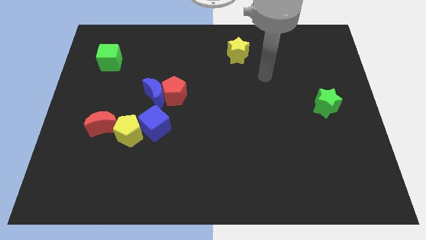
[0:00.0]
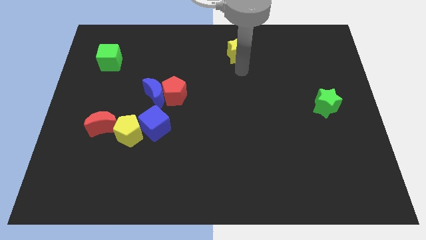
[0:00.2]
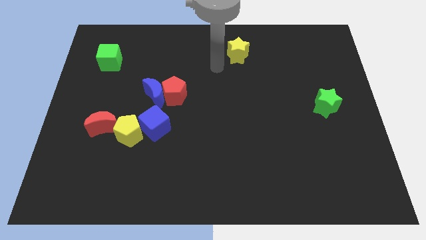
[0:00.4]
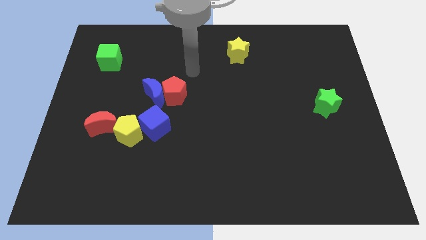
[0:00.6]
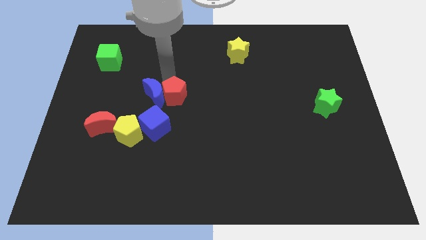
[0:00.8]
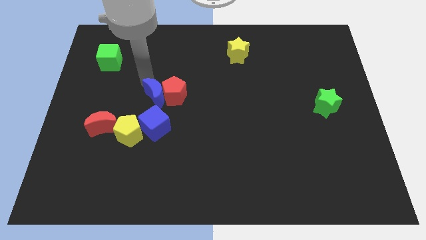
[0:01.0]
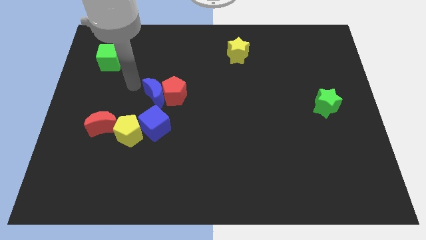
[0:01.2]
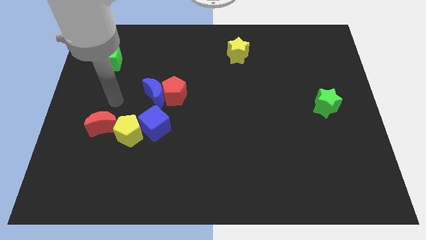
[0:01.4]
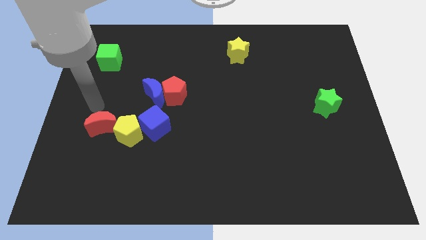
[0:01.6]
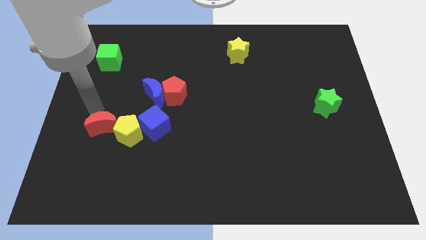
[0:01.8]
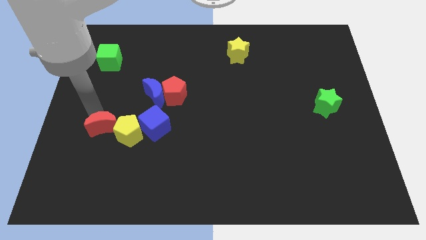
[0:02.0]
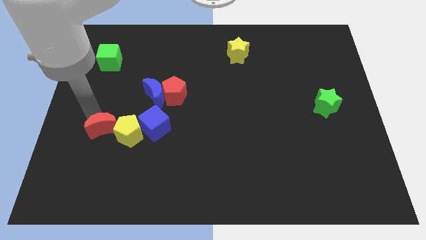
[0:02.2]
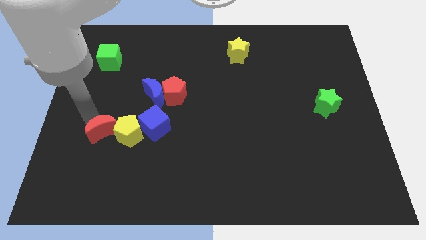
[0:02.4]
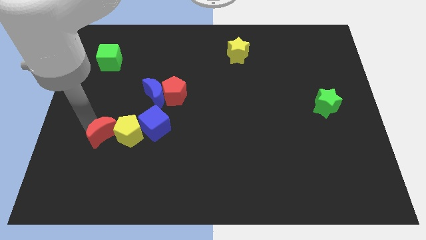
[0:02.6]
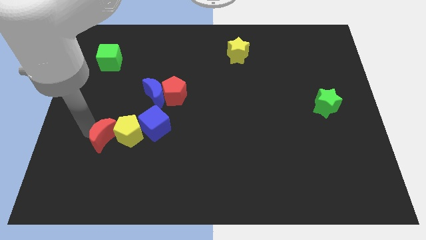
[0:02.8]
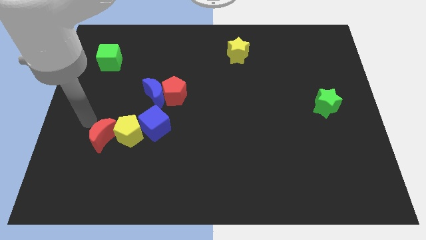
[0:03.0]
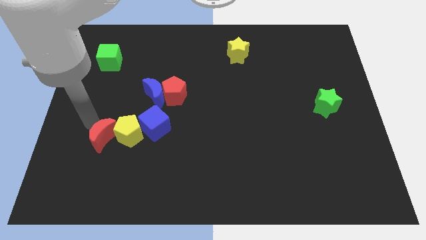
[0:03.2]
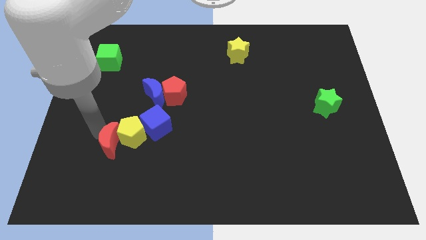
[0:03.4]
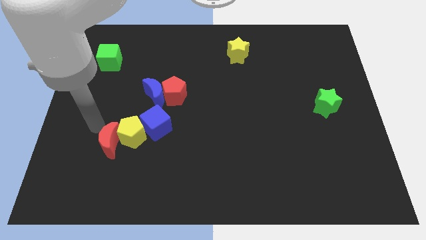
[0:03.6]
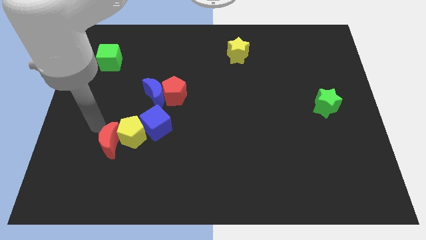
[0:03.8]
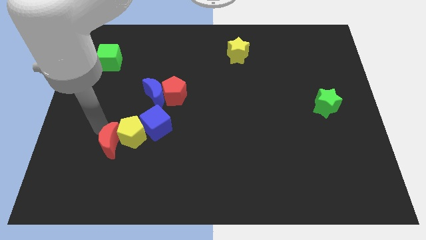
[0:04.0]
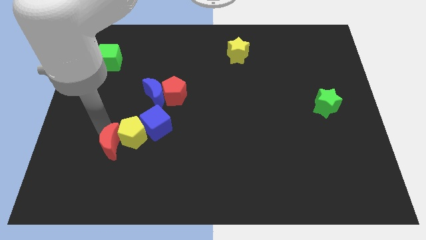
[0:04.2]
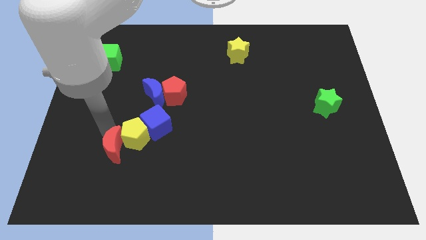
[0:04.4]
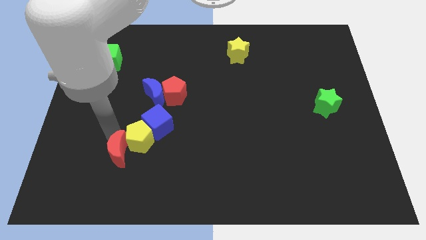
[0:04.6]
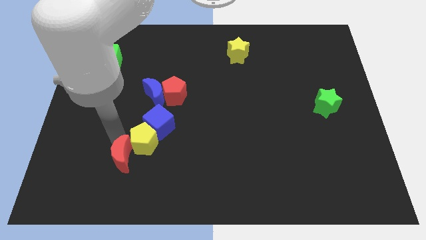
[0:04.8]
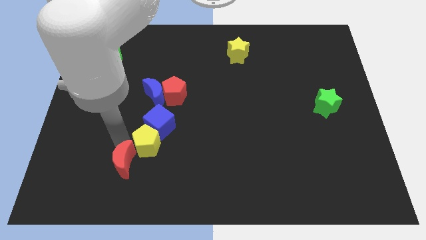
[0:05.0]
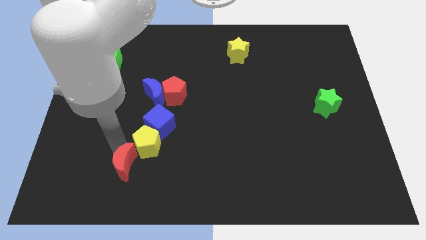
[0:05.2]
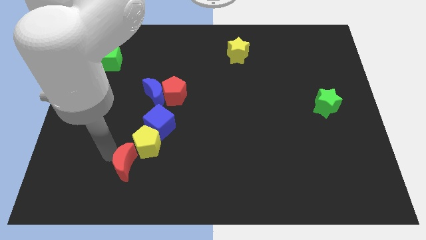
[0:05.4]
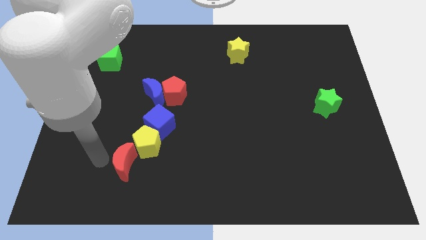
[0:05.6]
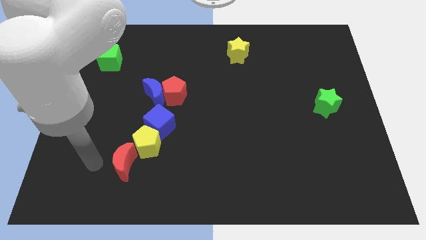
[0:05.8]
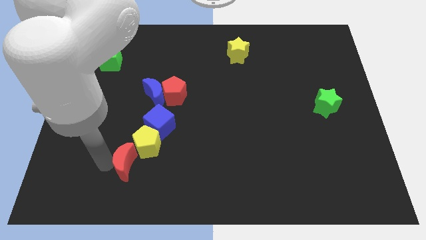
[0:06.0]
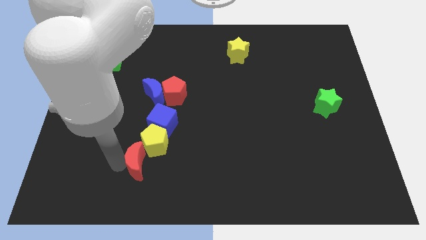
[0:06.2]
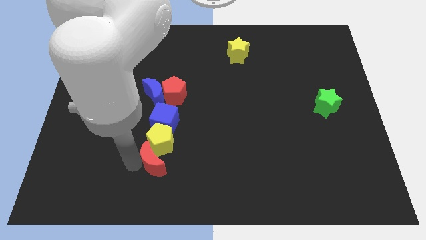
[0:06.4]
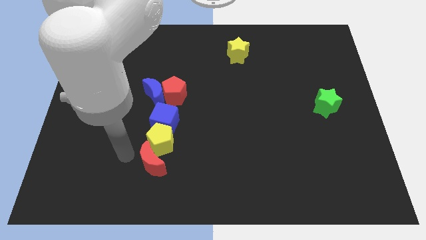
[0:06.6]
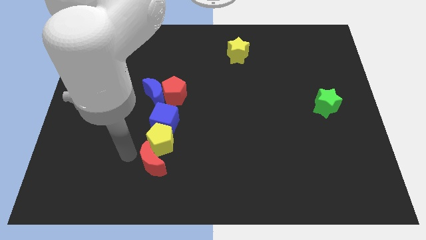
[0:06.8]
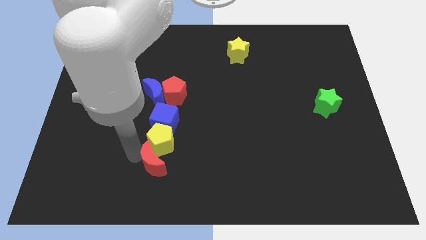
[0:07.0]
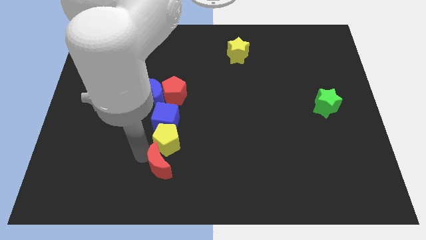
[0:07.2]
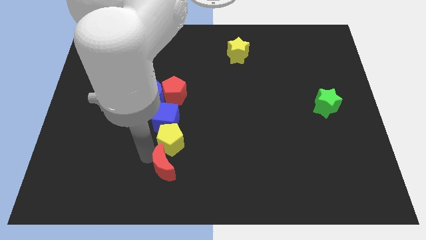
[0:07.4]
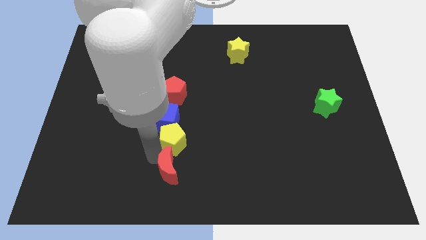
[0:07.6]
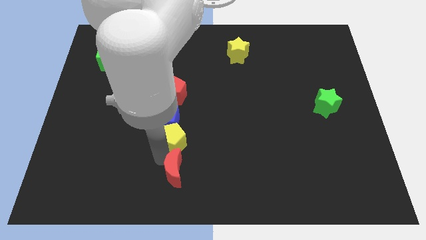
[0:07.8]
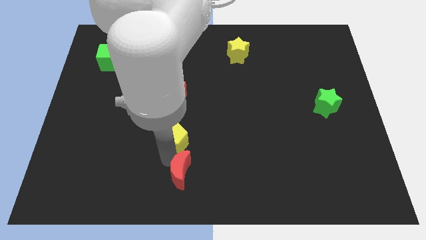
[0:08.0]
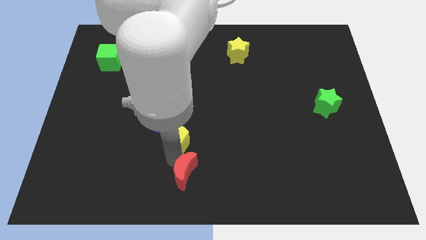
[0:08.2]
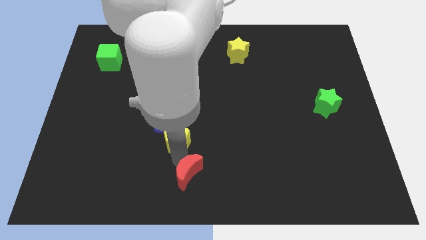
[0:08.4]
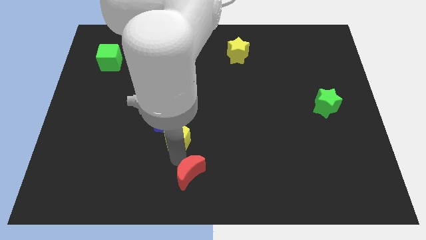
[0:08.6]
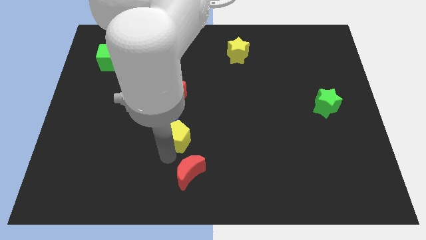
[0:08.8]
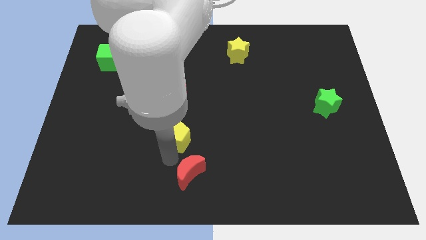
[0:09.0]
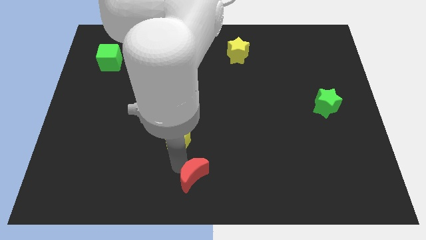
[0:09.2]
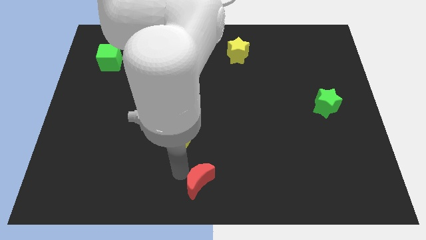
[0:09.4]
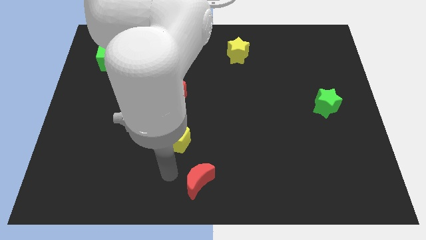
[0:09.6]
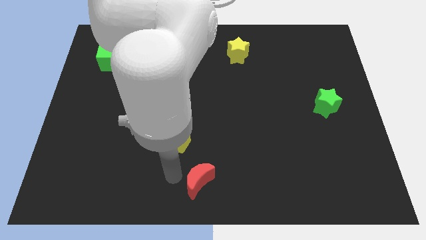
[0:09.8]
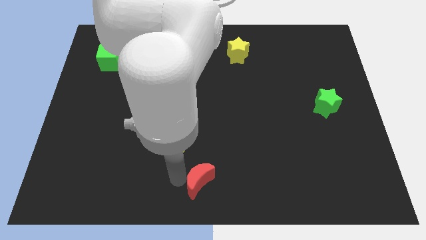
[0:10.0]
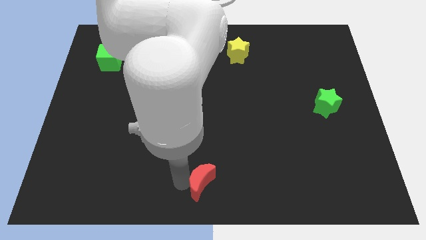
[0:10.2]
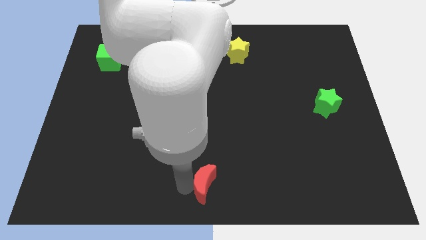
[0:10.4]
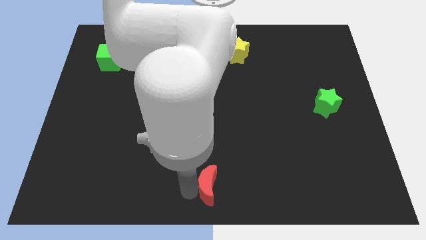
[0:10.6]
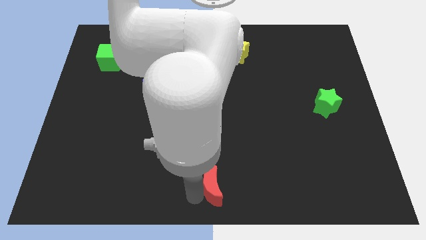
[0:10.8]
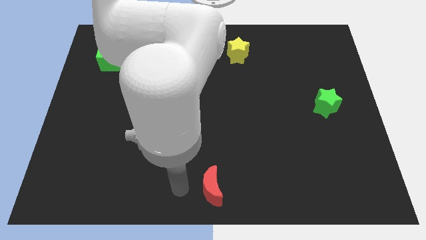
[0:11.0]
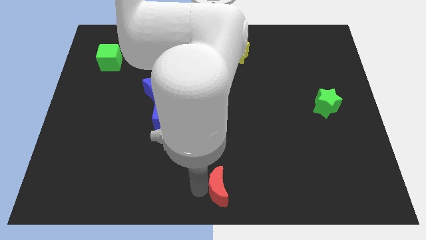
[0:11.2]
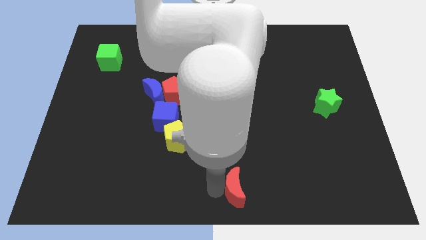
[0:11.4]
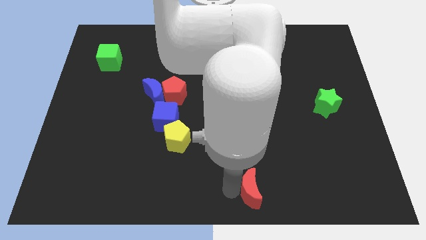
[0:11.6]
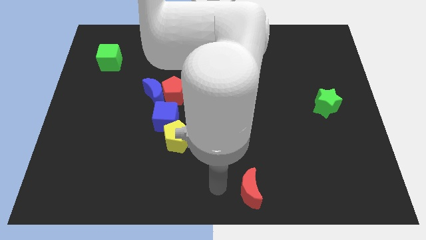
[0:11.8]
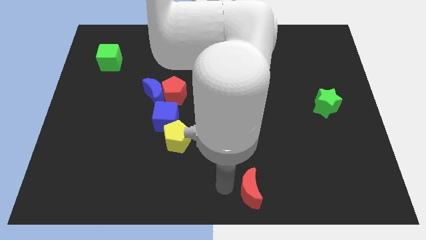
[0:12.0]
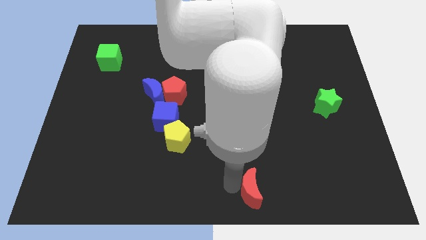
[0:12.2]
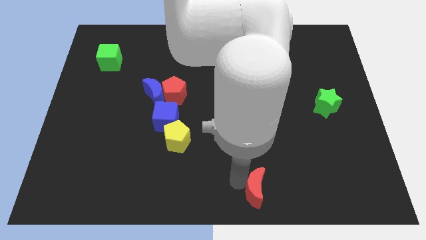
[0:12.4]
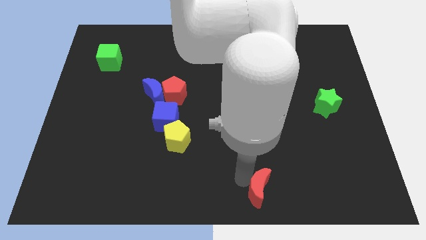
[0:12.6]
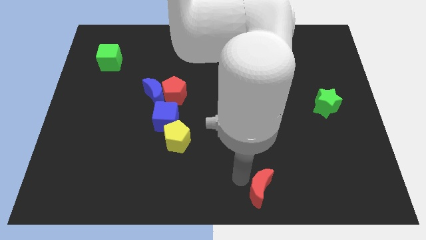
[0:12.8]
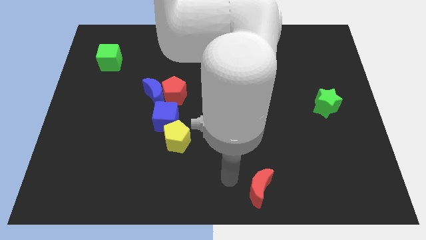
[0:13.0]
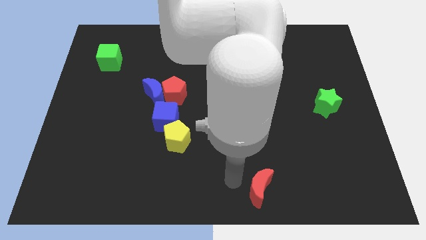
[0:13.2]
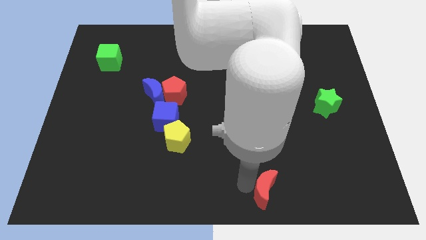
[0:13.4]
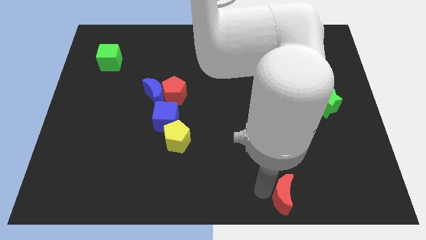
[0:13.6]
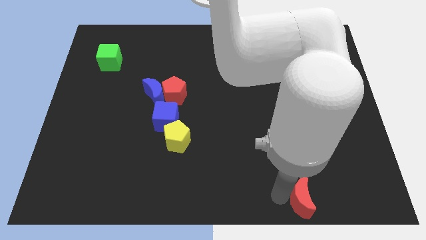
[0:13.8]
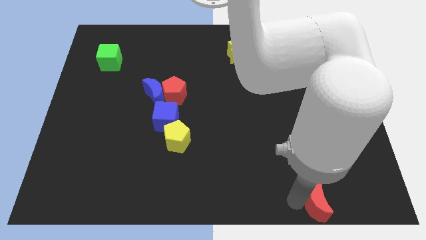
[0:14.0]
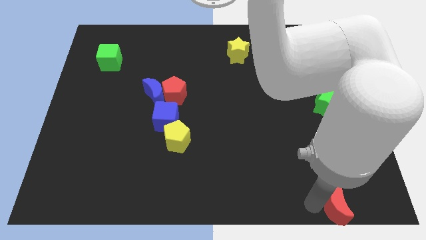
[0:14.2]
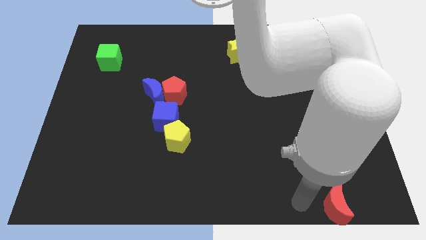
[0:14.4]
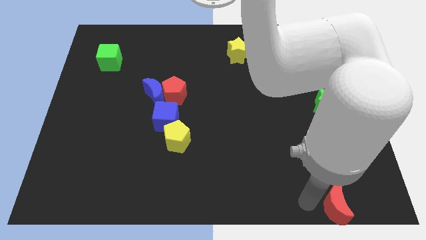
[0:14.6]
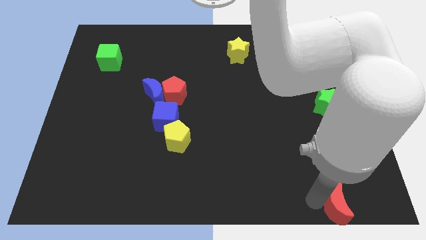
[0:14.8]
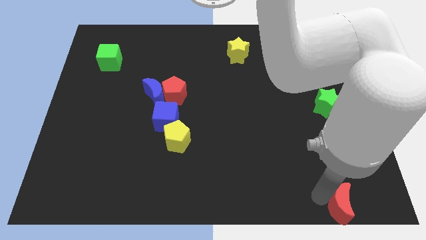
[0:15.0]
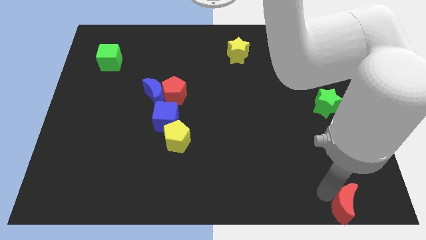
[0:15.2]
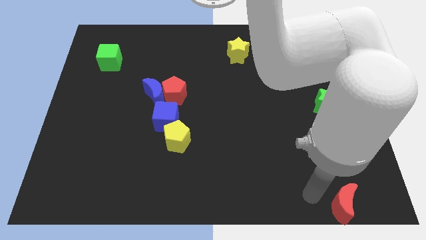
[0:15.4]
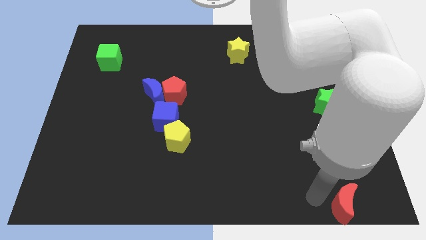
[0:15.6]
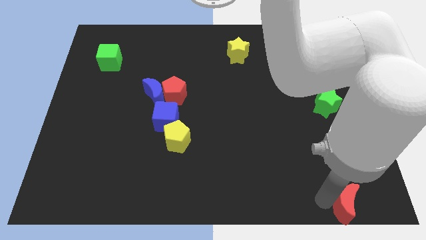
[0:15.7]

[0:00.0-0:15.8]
move the red moon to the bottom right corner
